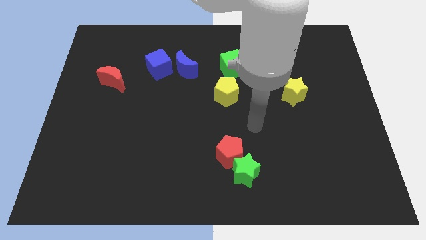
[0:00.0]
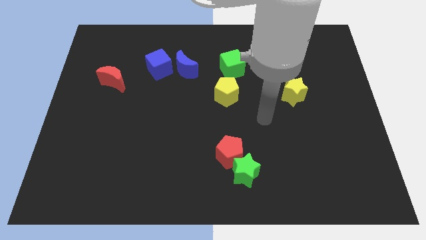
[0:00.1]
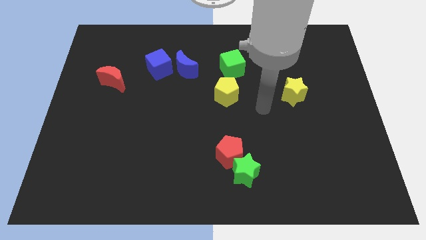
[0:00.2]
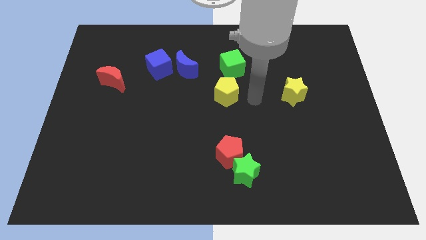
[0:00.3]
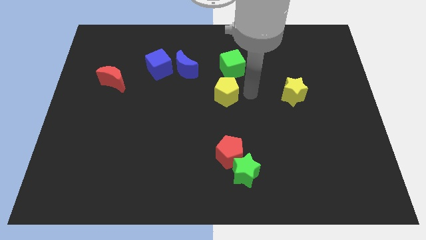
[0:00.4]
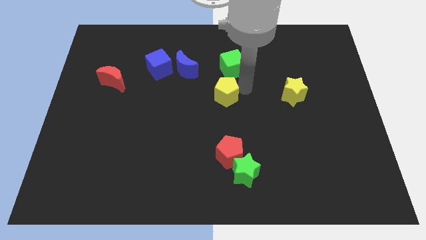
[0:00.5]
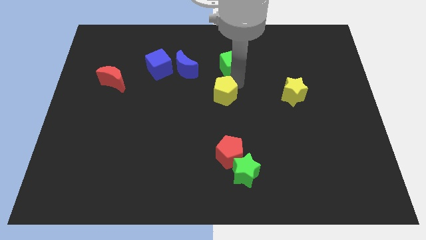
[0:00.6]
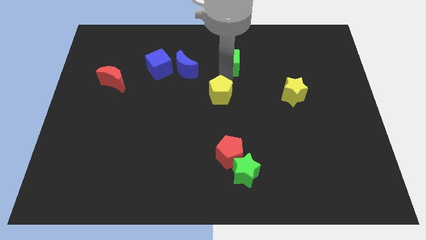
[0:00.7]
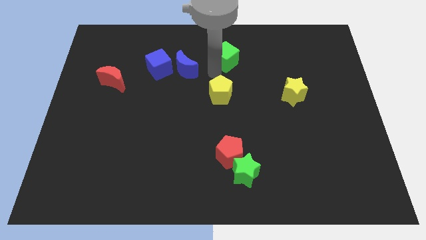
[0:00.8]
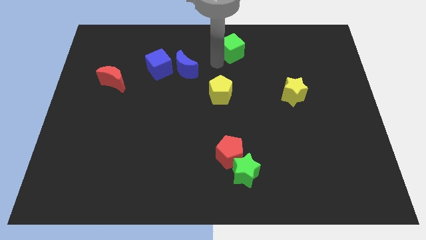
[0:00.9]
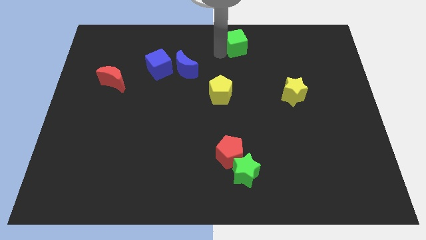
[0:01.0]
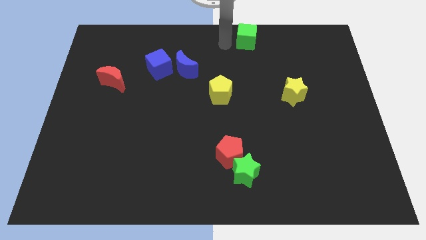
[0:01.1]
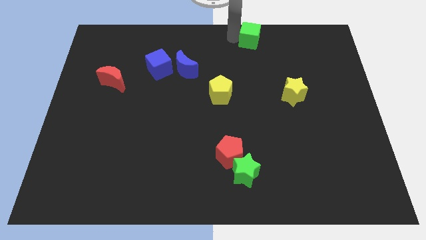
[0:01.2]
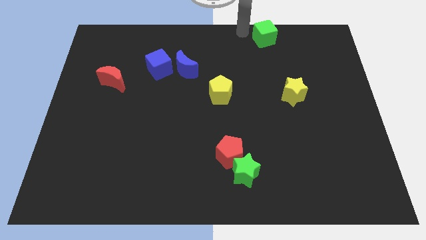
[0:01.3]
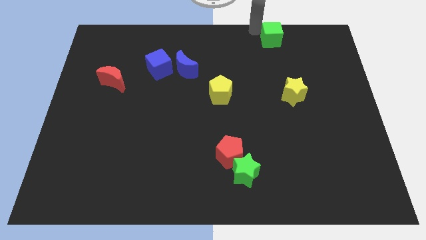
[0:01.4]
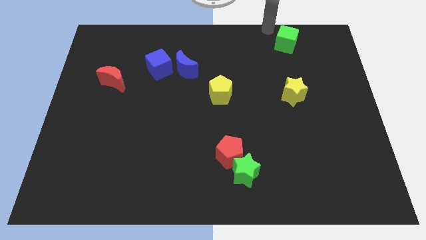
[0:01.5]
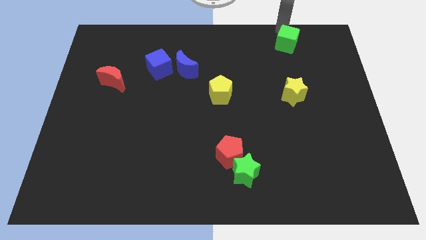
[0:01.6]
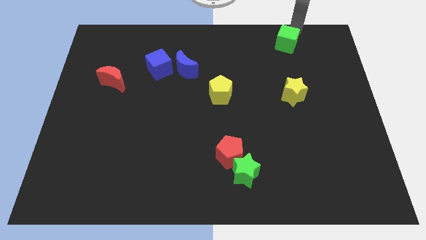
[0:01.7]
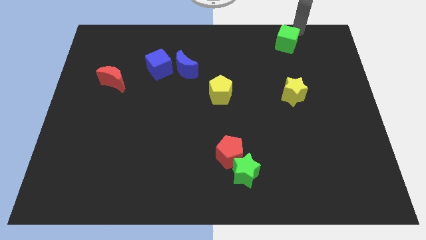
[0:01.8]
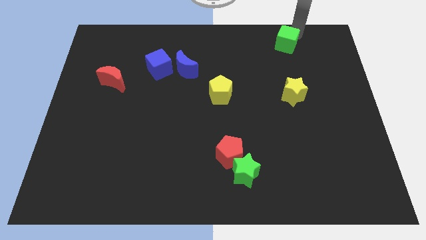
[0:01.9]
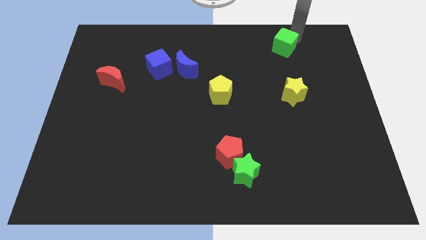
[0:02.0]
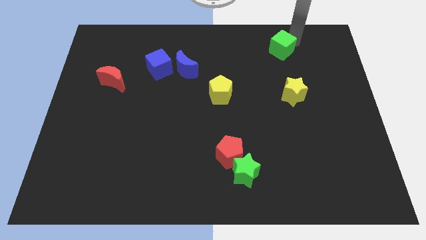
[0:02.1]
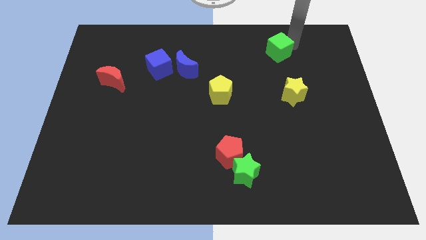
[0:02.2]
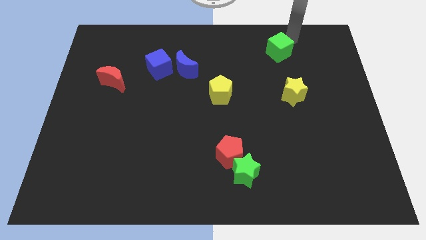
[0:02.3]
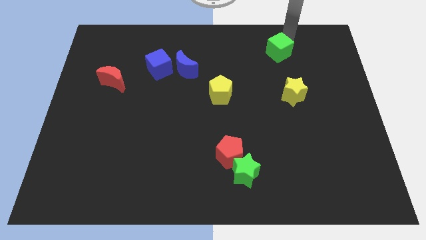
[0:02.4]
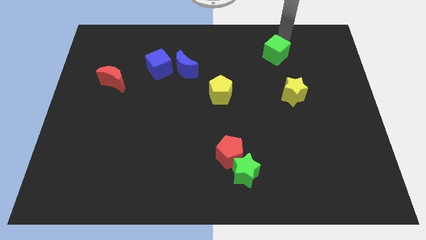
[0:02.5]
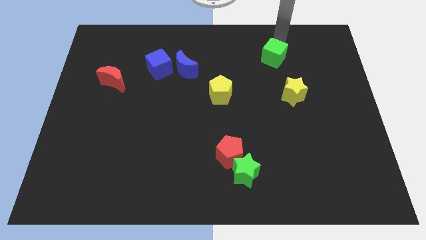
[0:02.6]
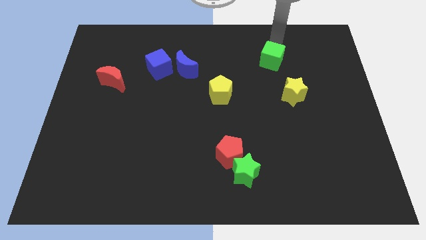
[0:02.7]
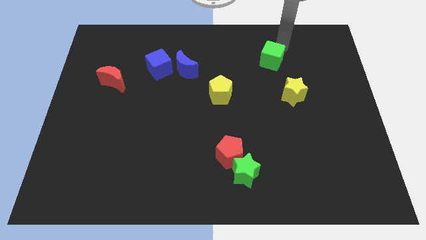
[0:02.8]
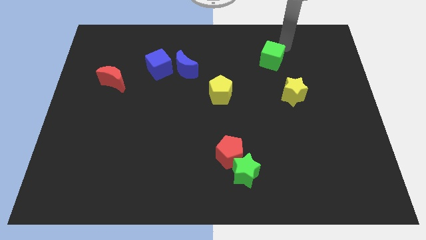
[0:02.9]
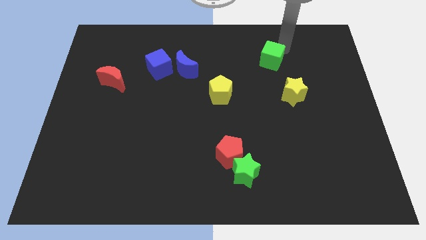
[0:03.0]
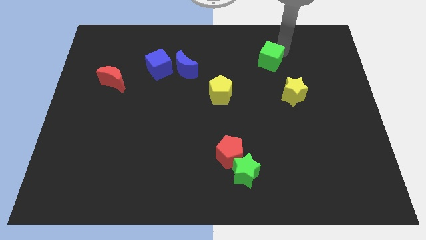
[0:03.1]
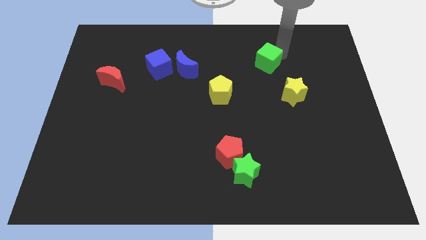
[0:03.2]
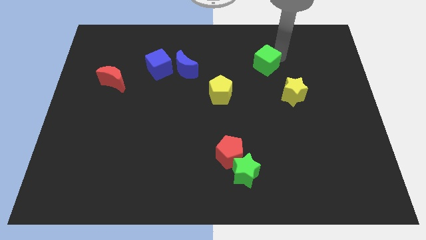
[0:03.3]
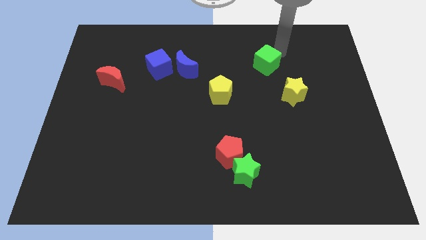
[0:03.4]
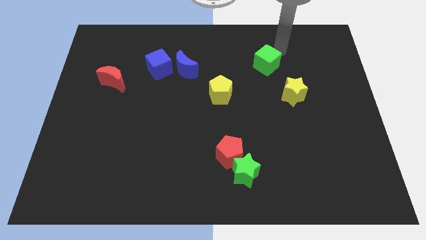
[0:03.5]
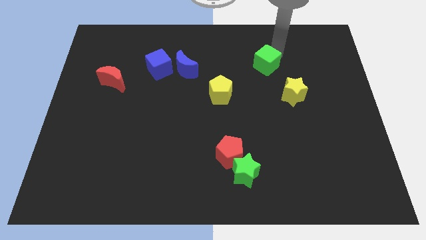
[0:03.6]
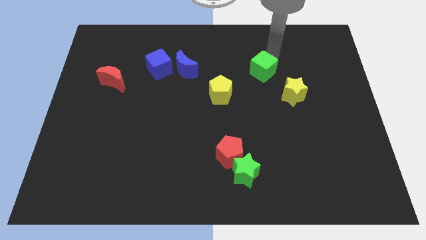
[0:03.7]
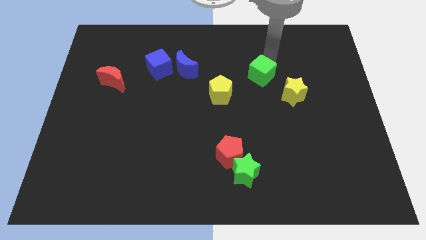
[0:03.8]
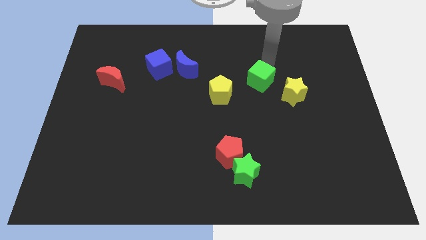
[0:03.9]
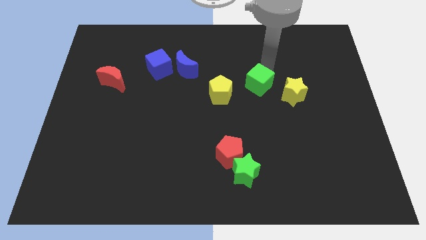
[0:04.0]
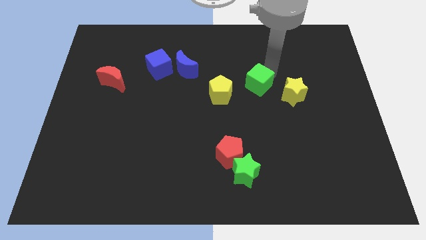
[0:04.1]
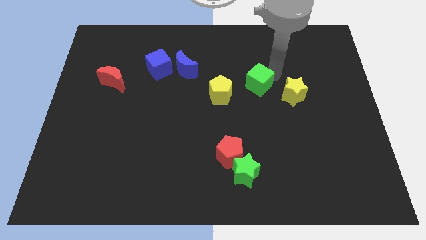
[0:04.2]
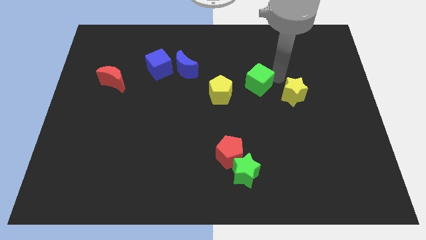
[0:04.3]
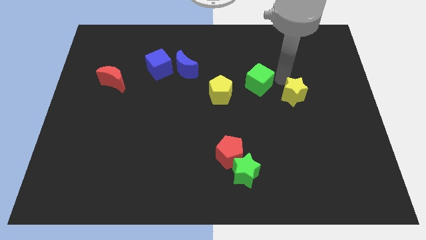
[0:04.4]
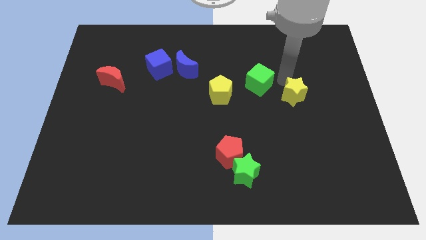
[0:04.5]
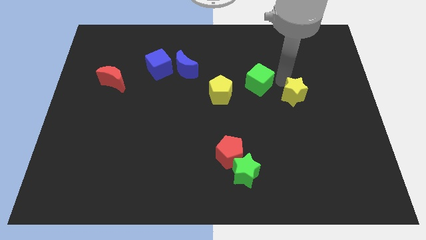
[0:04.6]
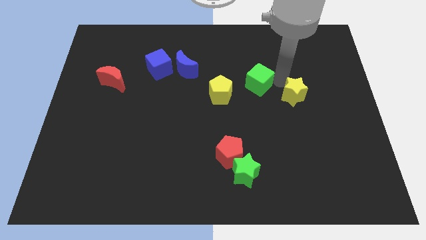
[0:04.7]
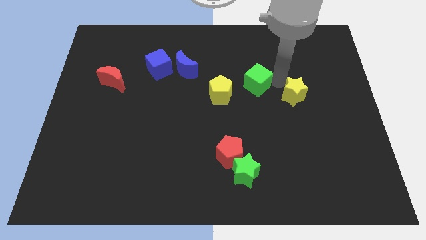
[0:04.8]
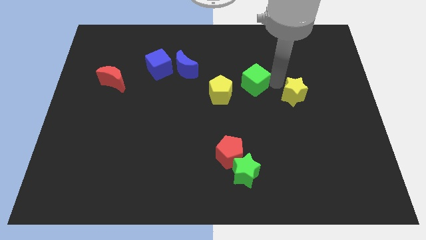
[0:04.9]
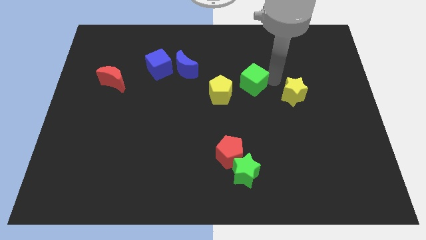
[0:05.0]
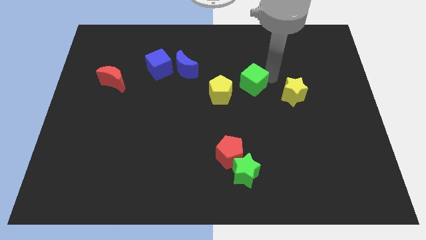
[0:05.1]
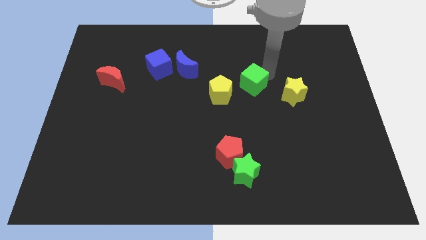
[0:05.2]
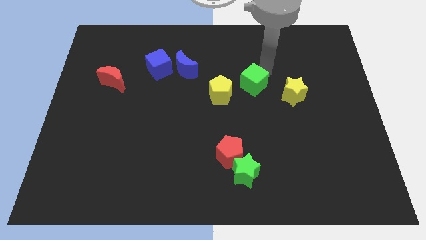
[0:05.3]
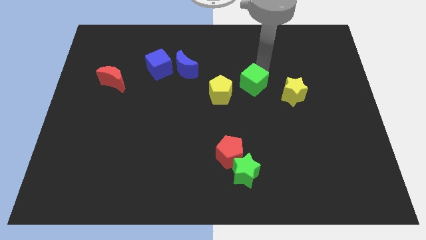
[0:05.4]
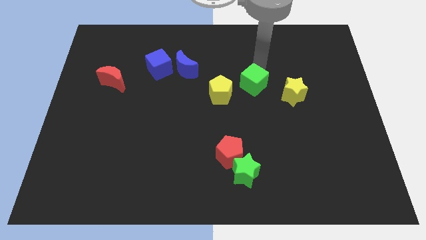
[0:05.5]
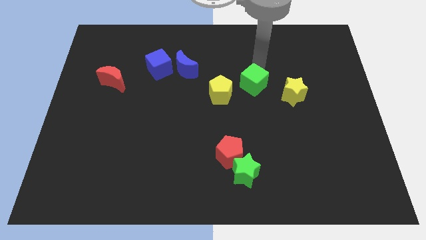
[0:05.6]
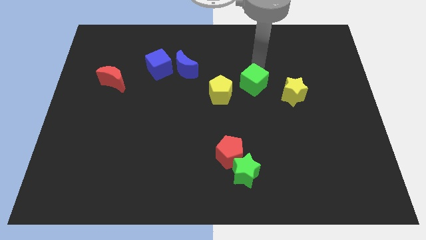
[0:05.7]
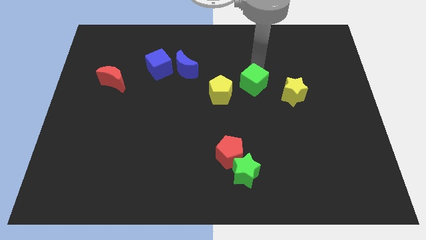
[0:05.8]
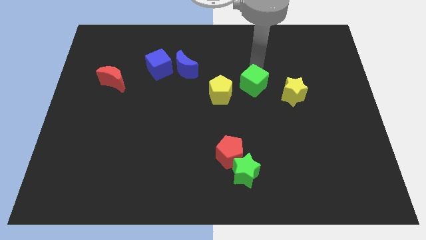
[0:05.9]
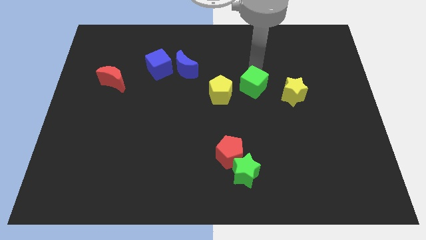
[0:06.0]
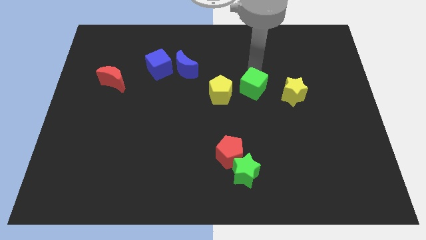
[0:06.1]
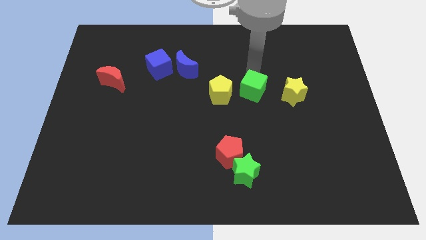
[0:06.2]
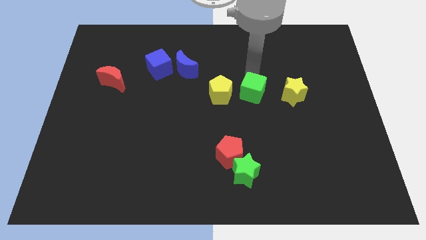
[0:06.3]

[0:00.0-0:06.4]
slightly move the green cube down

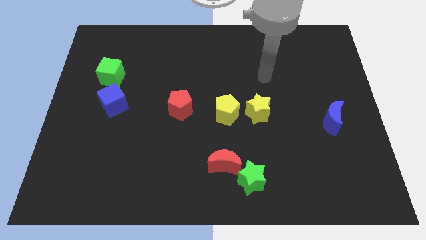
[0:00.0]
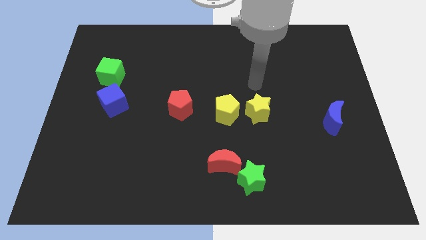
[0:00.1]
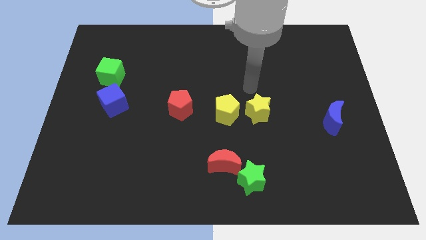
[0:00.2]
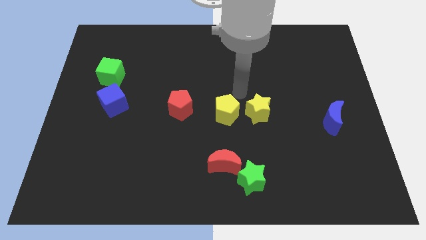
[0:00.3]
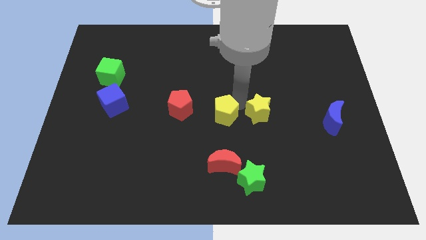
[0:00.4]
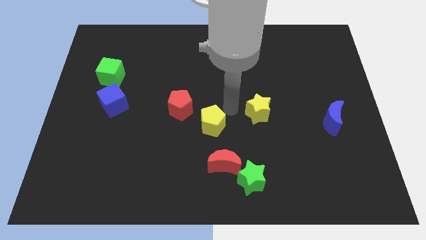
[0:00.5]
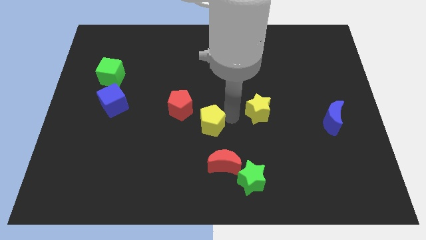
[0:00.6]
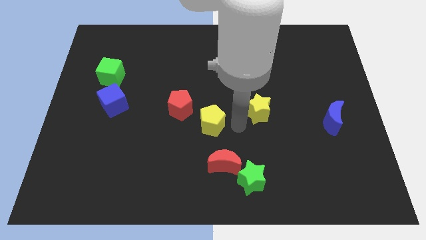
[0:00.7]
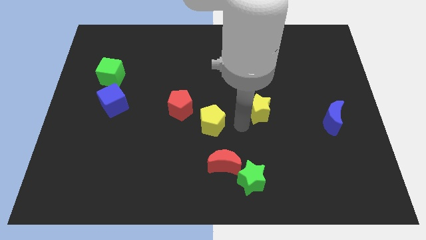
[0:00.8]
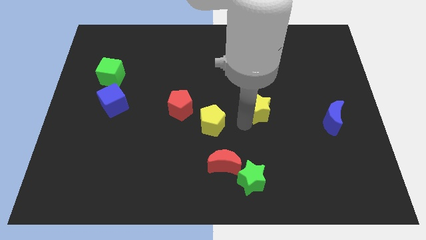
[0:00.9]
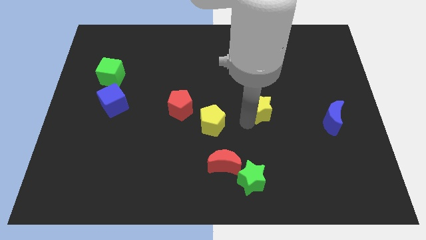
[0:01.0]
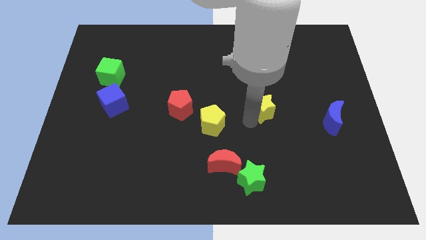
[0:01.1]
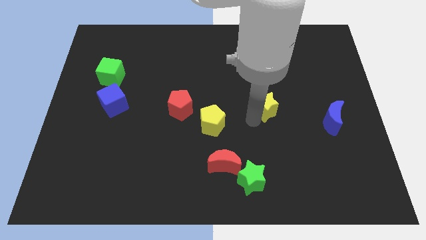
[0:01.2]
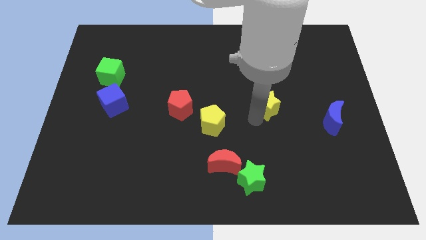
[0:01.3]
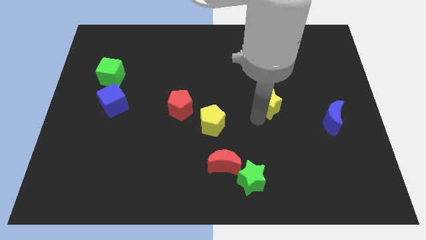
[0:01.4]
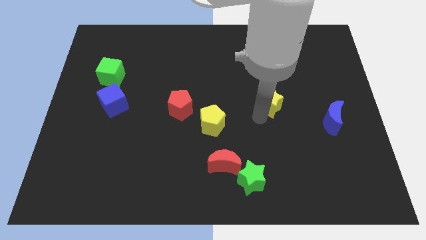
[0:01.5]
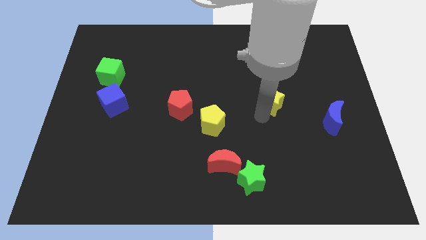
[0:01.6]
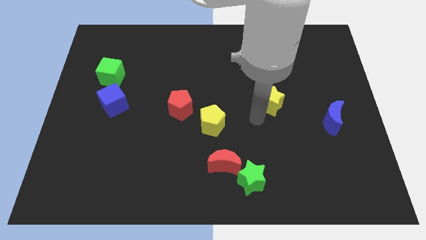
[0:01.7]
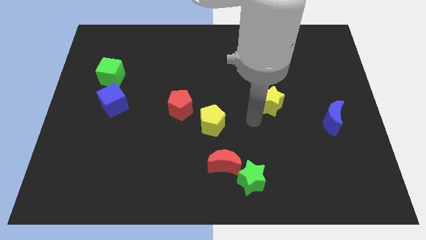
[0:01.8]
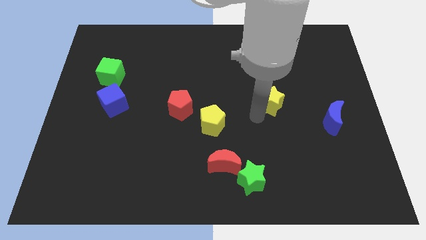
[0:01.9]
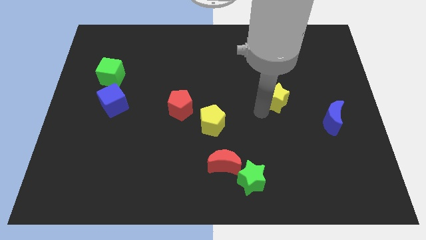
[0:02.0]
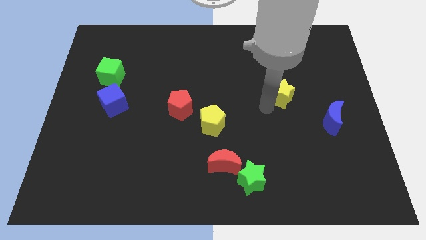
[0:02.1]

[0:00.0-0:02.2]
slide the yellow star up and right diagonally somewhat

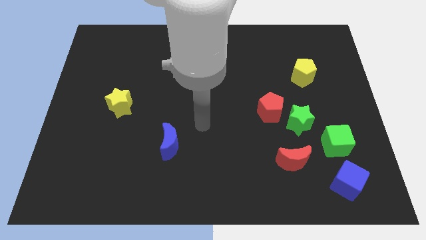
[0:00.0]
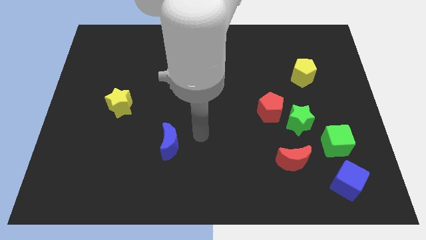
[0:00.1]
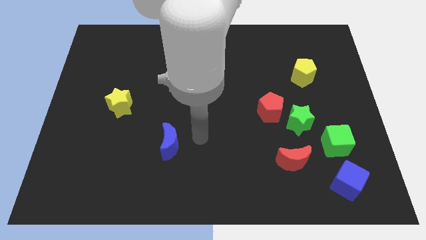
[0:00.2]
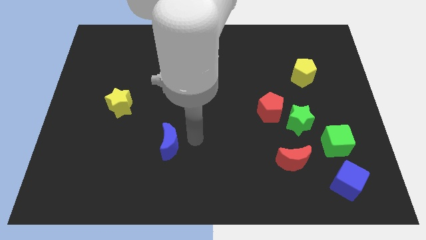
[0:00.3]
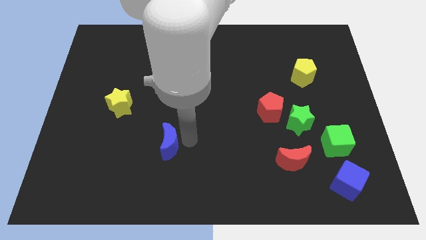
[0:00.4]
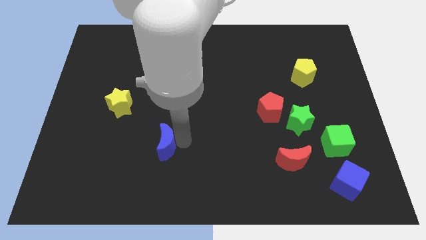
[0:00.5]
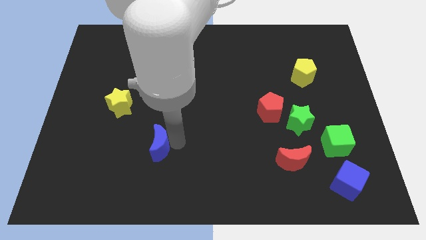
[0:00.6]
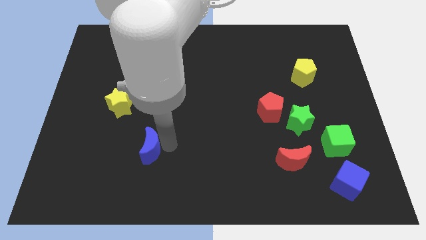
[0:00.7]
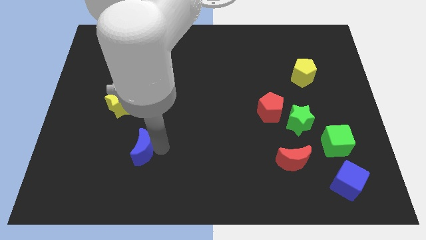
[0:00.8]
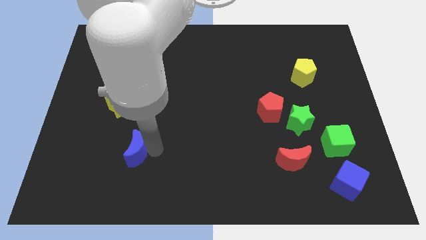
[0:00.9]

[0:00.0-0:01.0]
slightly move the blue moon left
